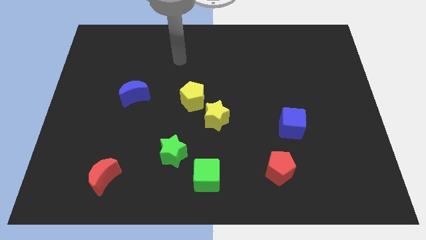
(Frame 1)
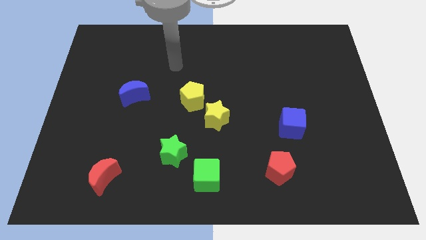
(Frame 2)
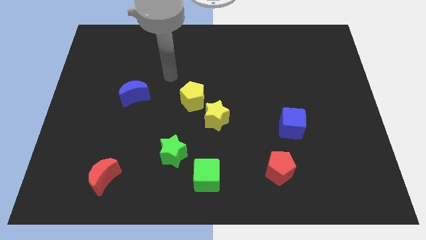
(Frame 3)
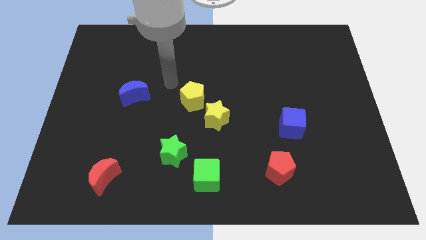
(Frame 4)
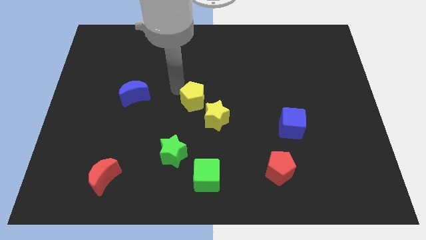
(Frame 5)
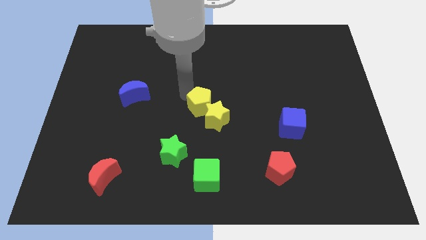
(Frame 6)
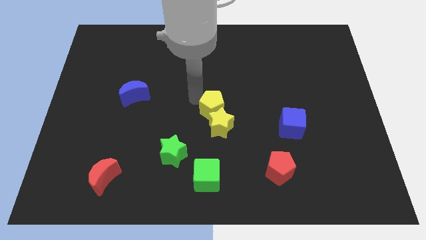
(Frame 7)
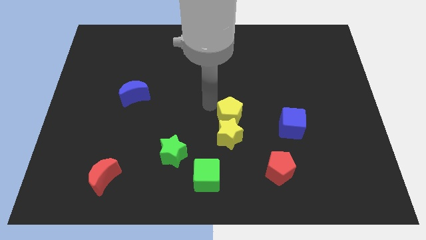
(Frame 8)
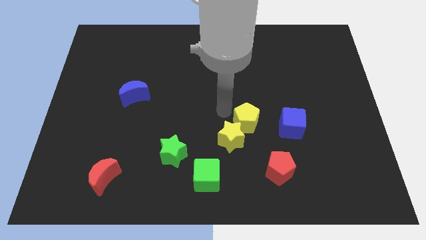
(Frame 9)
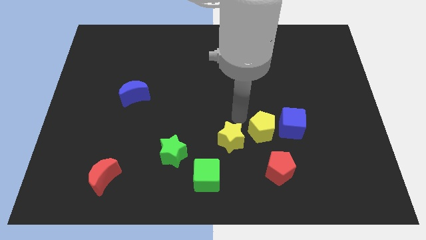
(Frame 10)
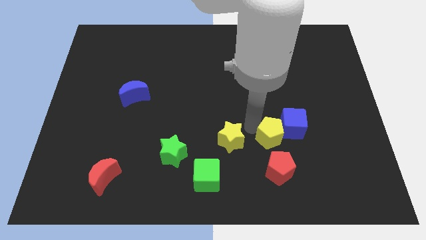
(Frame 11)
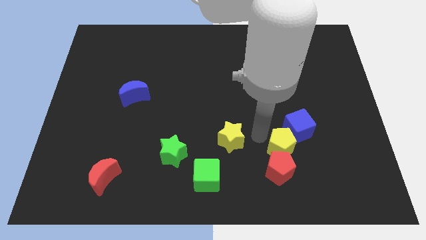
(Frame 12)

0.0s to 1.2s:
move the yellow star away from the yellow pentagon

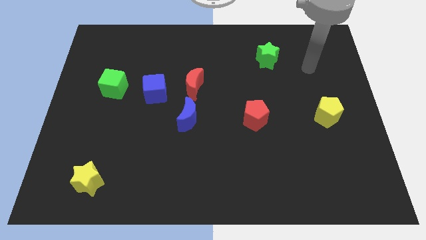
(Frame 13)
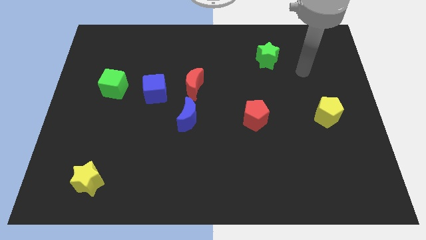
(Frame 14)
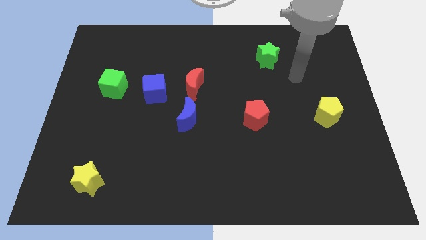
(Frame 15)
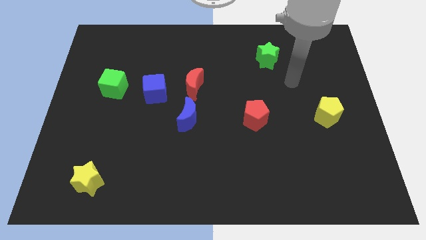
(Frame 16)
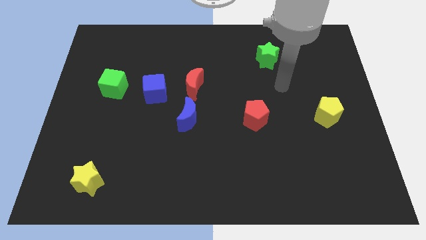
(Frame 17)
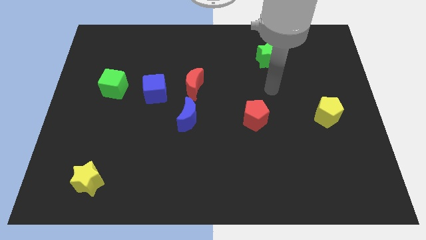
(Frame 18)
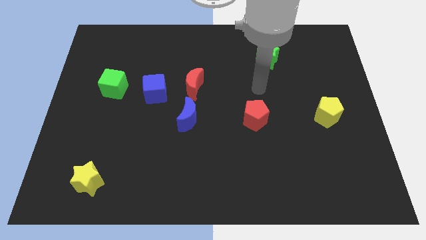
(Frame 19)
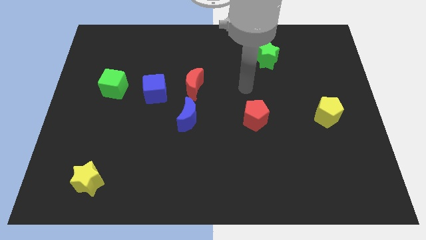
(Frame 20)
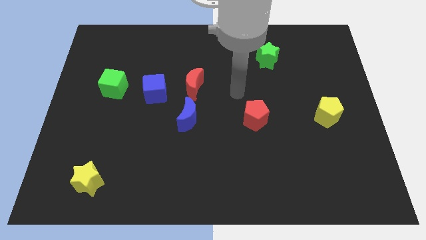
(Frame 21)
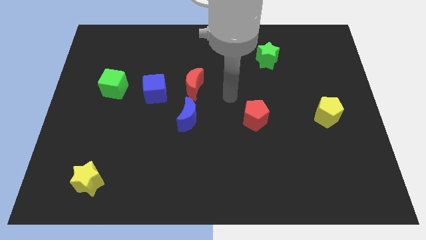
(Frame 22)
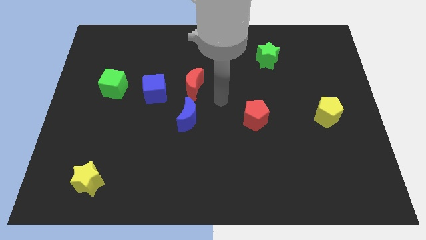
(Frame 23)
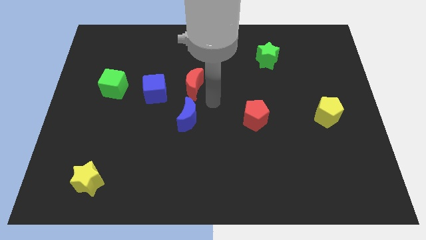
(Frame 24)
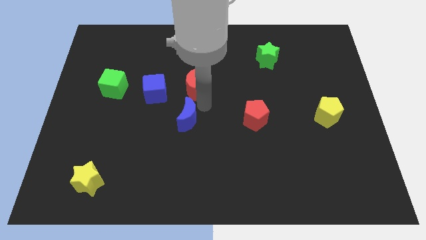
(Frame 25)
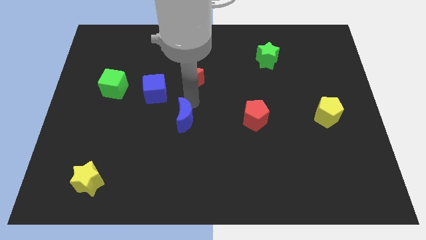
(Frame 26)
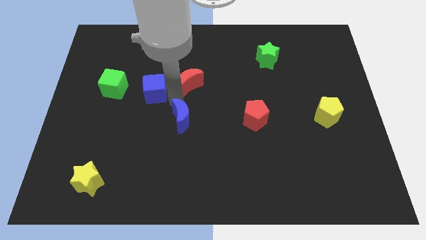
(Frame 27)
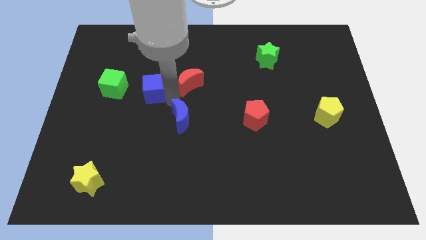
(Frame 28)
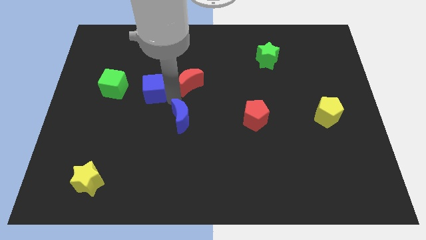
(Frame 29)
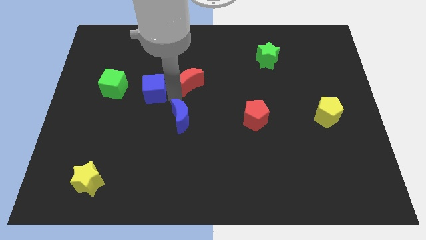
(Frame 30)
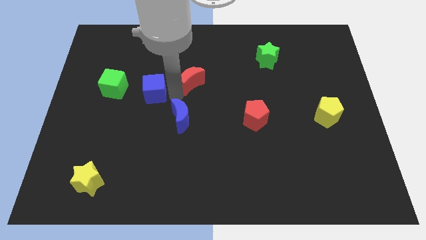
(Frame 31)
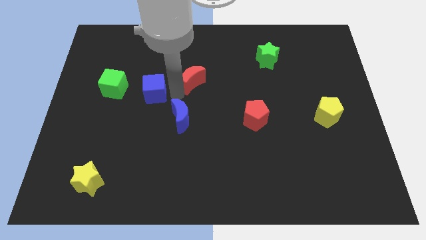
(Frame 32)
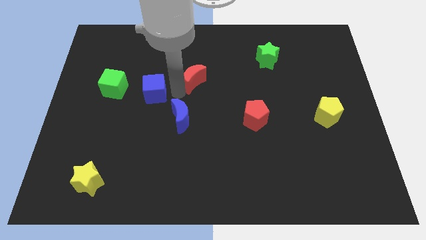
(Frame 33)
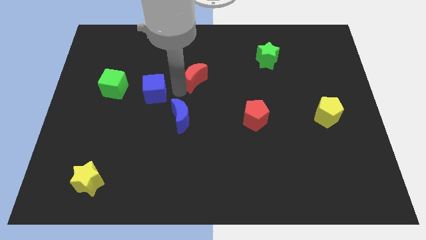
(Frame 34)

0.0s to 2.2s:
move the red moon away from the blue cube and blue moon

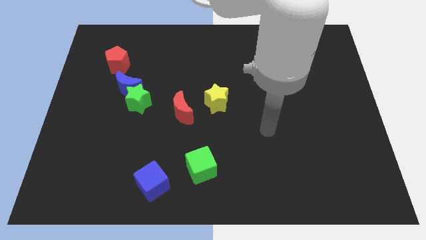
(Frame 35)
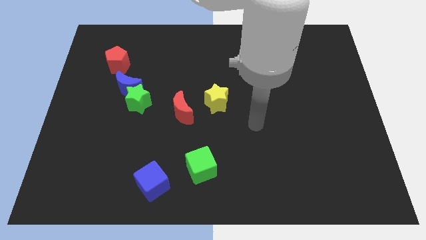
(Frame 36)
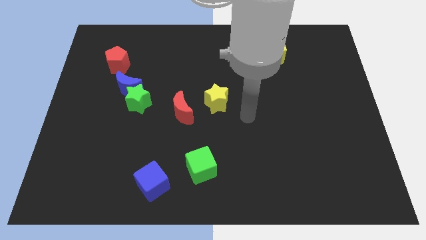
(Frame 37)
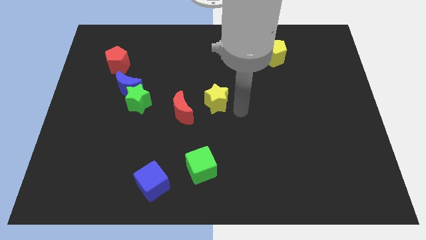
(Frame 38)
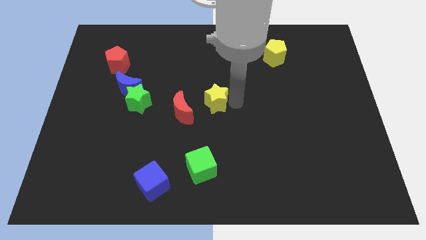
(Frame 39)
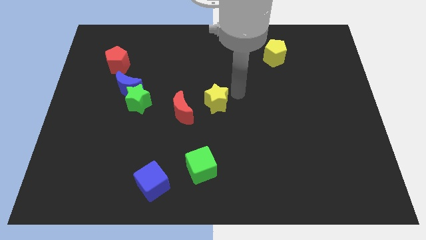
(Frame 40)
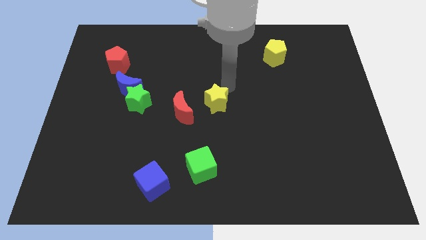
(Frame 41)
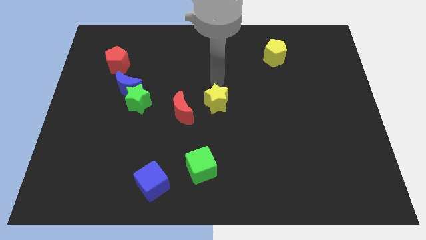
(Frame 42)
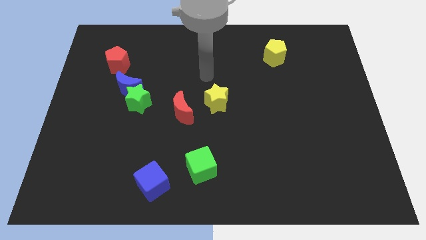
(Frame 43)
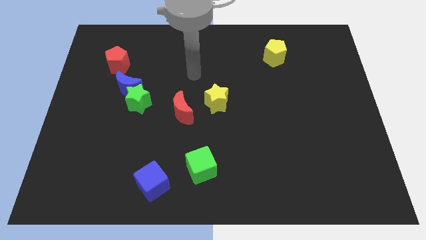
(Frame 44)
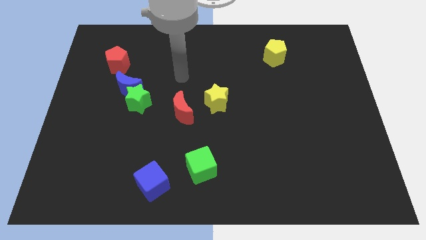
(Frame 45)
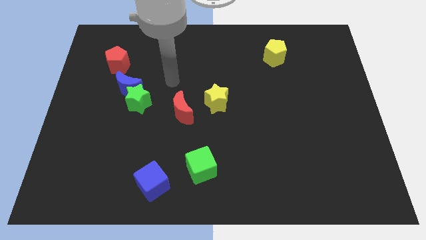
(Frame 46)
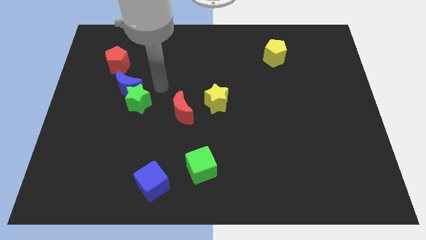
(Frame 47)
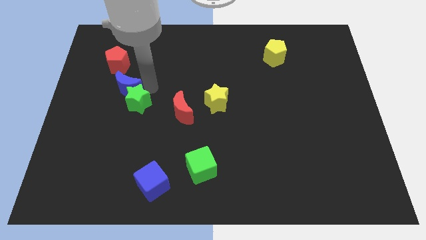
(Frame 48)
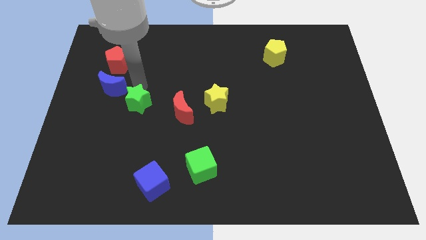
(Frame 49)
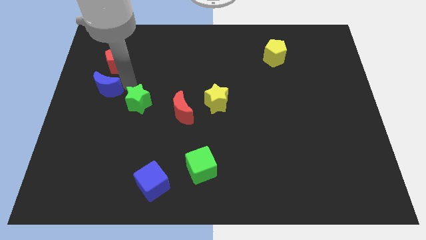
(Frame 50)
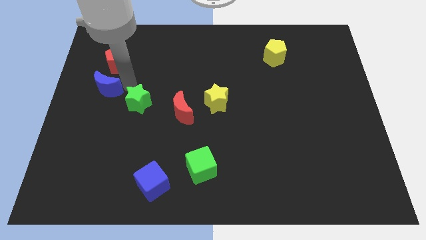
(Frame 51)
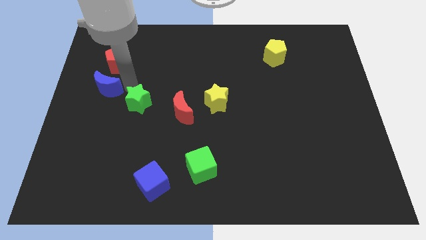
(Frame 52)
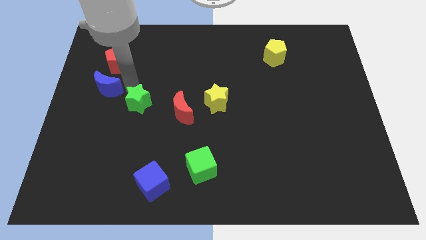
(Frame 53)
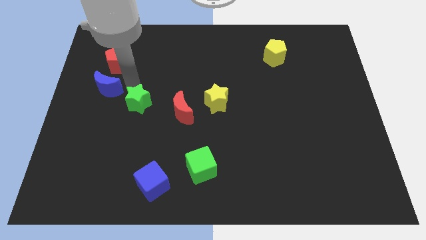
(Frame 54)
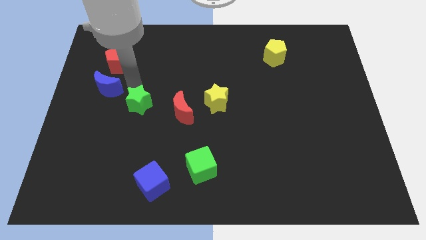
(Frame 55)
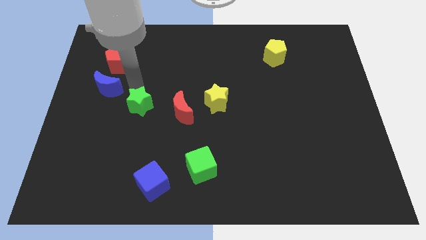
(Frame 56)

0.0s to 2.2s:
move the green star away from the blue moon

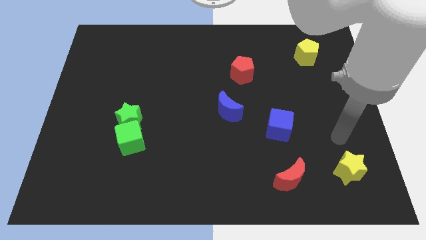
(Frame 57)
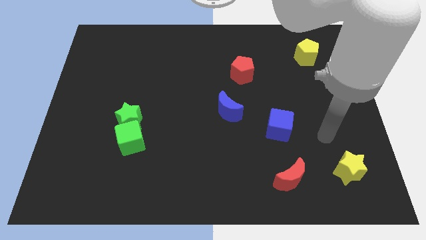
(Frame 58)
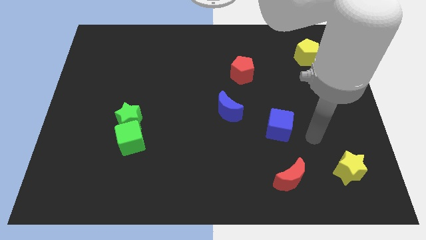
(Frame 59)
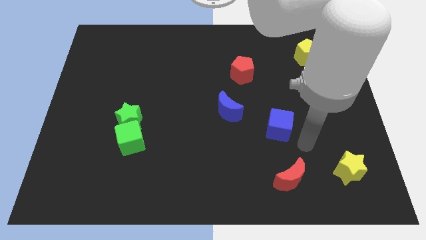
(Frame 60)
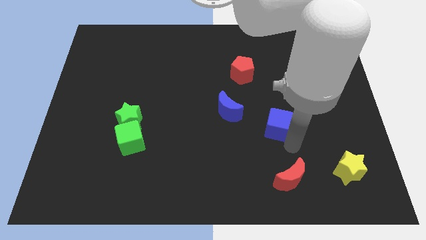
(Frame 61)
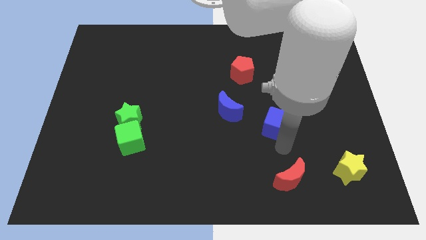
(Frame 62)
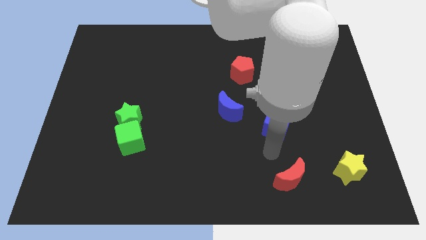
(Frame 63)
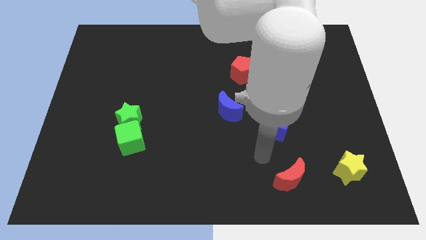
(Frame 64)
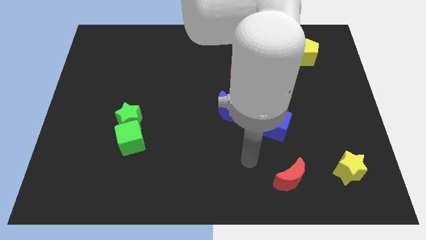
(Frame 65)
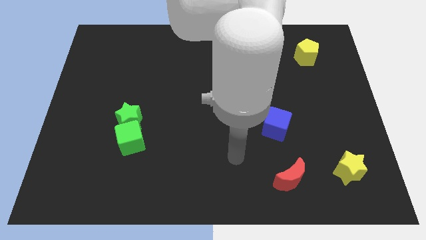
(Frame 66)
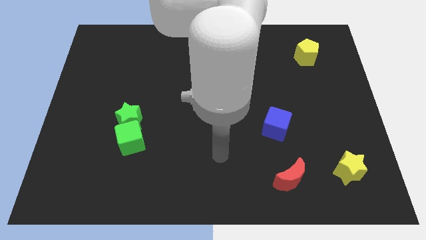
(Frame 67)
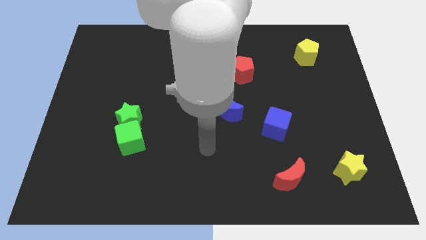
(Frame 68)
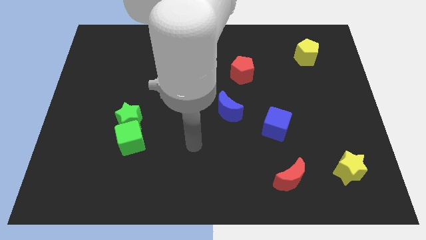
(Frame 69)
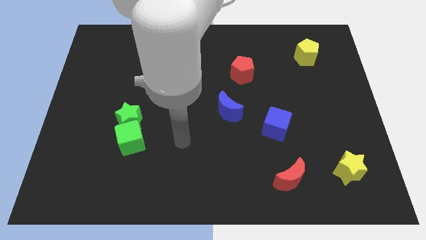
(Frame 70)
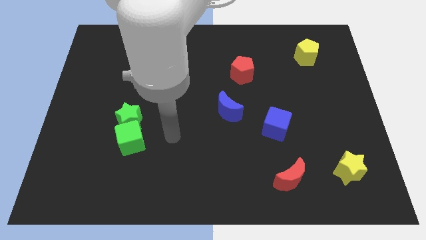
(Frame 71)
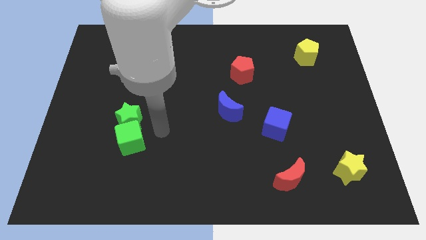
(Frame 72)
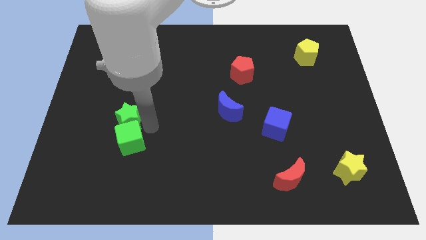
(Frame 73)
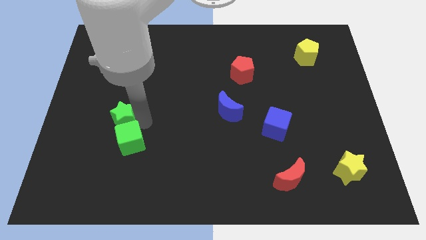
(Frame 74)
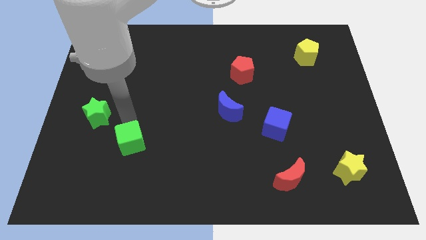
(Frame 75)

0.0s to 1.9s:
separate the green cube from the green star

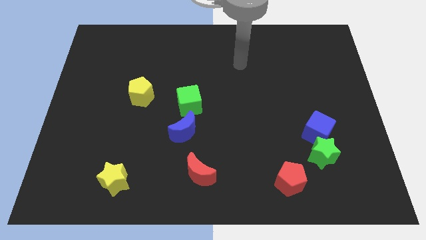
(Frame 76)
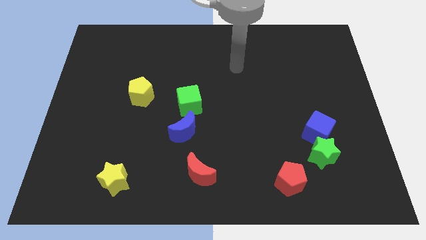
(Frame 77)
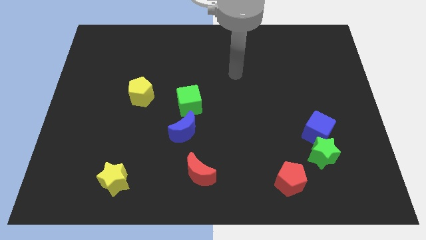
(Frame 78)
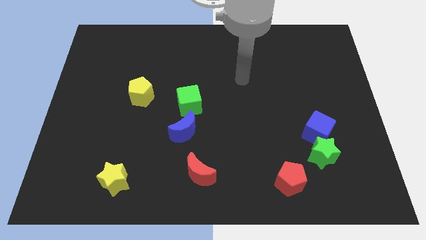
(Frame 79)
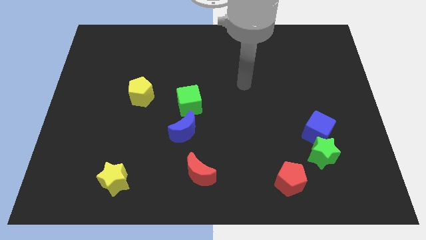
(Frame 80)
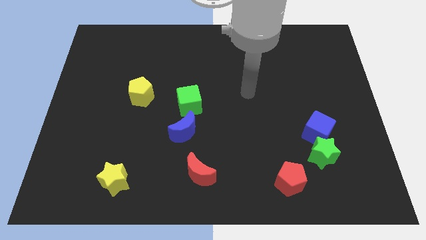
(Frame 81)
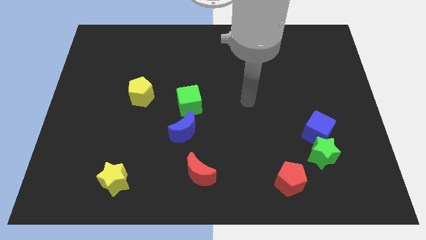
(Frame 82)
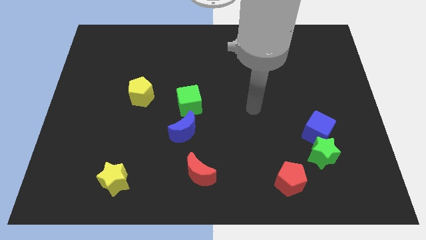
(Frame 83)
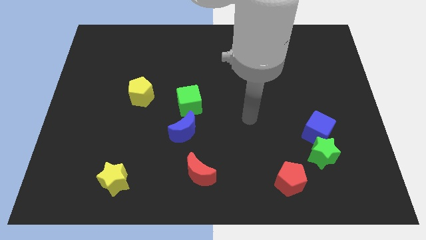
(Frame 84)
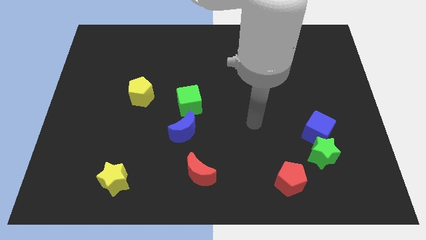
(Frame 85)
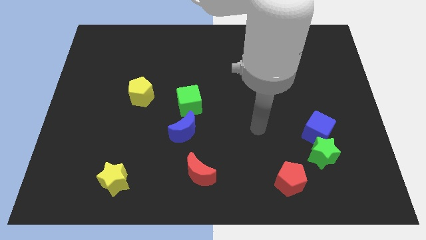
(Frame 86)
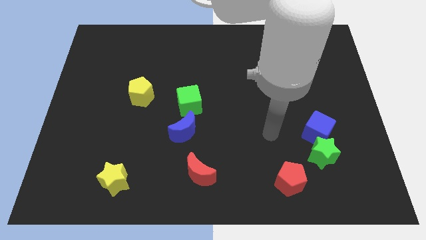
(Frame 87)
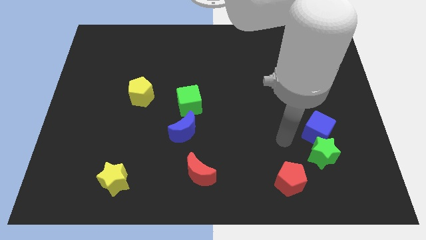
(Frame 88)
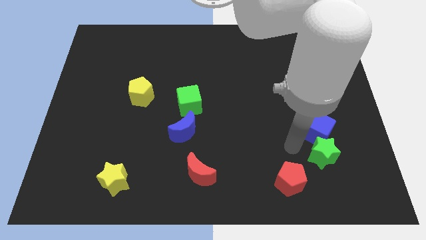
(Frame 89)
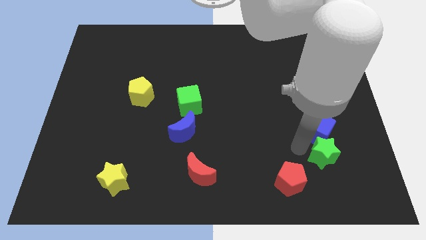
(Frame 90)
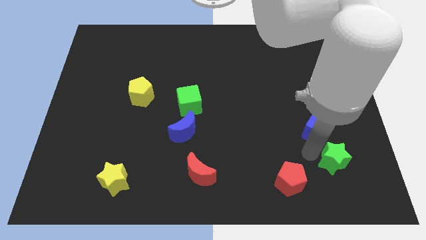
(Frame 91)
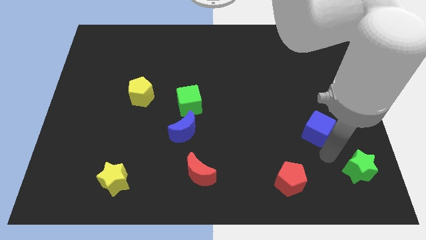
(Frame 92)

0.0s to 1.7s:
move the blue cube away from the green star

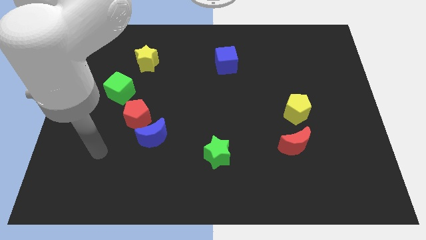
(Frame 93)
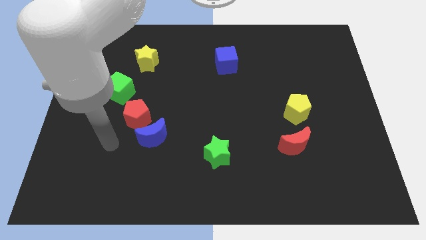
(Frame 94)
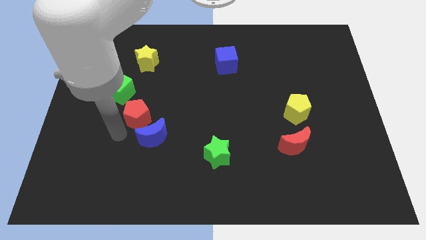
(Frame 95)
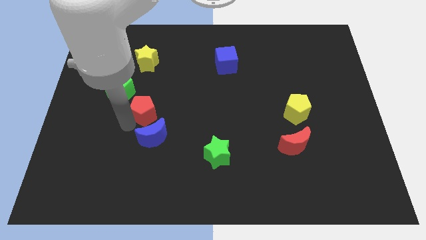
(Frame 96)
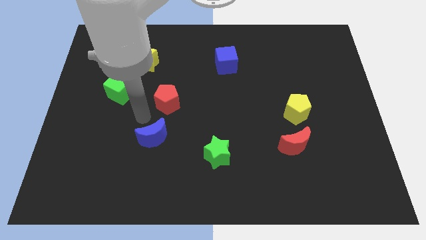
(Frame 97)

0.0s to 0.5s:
move the blue moon away from the red pentagon
